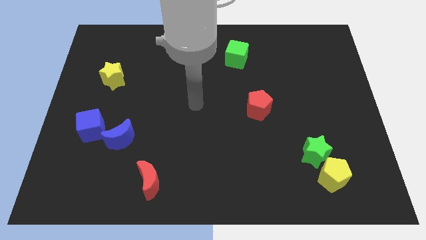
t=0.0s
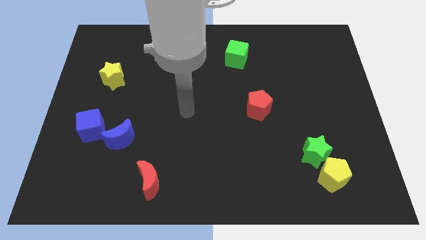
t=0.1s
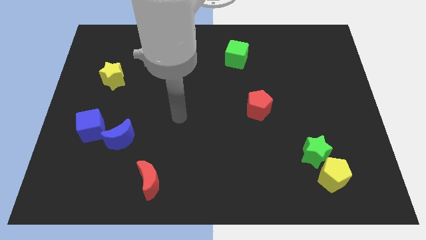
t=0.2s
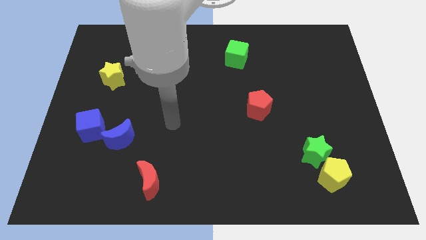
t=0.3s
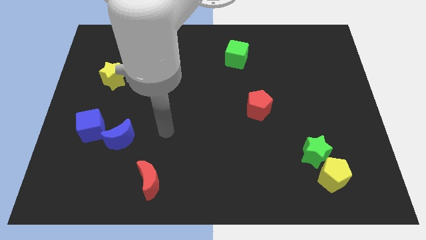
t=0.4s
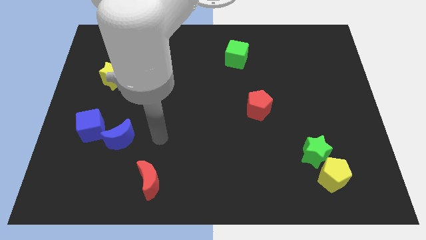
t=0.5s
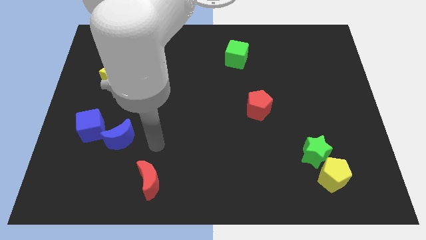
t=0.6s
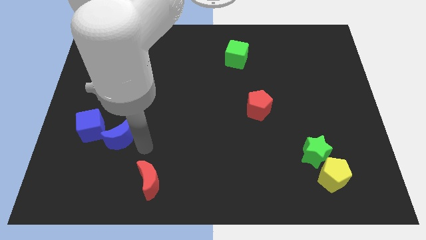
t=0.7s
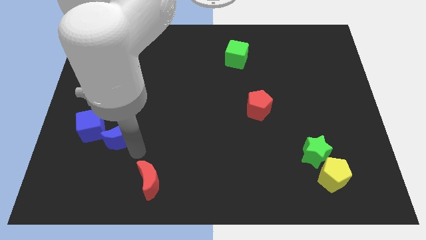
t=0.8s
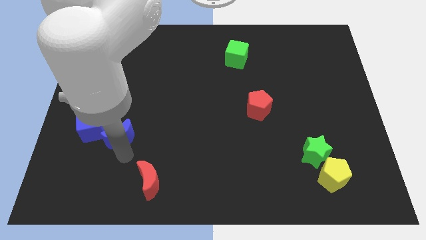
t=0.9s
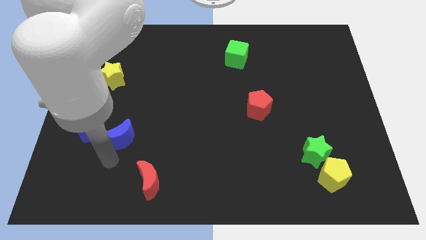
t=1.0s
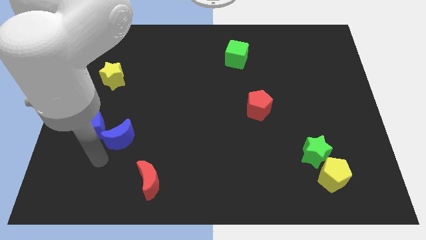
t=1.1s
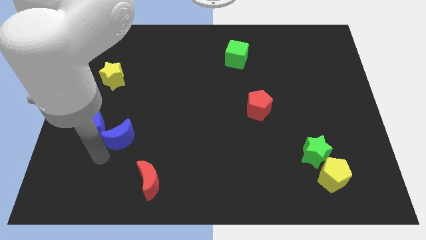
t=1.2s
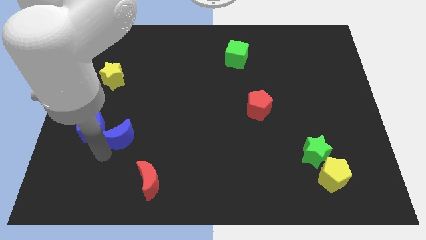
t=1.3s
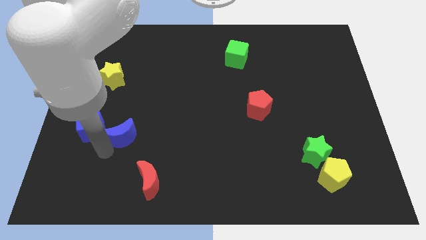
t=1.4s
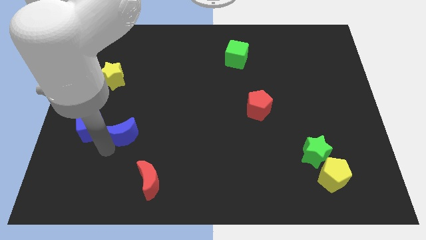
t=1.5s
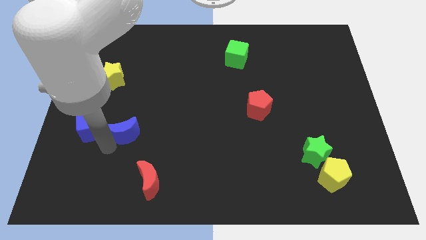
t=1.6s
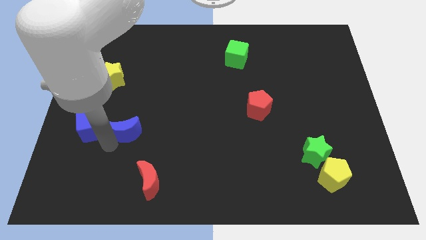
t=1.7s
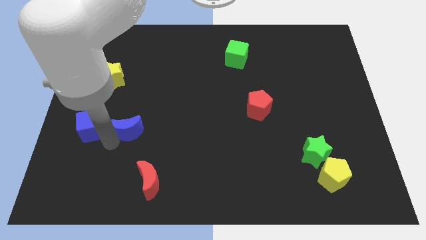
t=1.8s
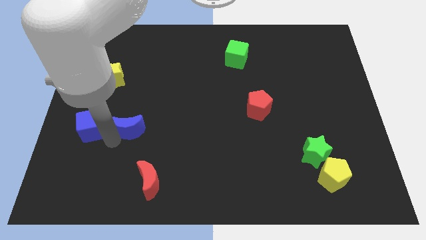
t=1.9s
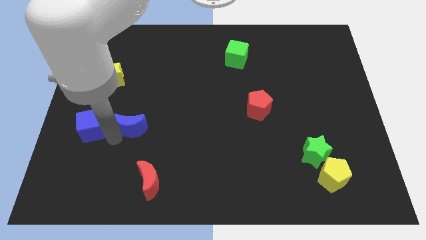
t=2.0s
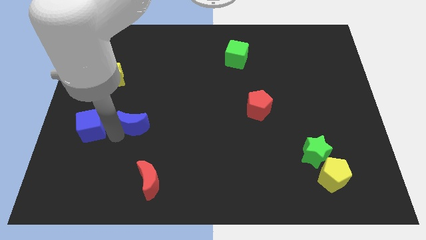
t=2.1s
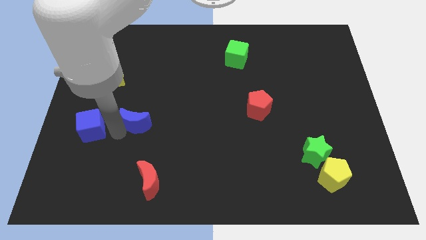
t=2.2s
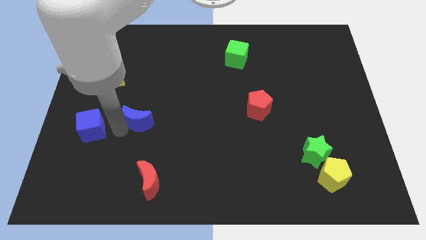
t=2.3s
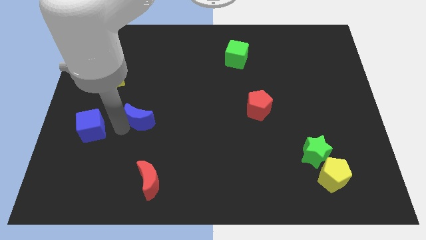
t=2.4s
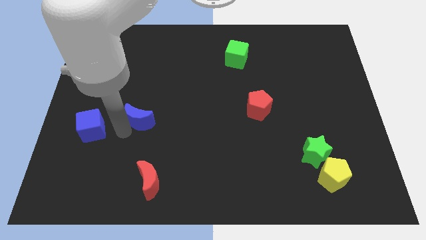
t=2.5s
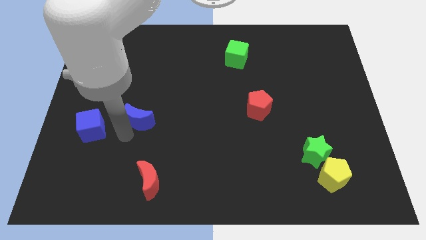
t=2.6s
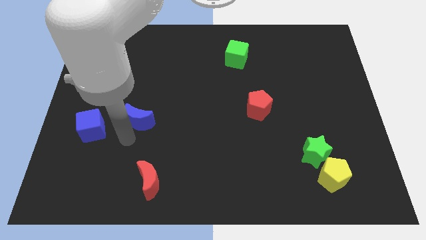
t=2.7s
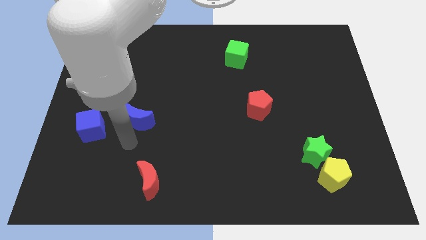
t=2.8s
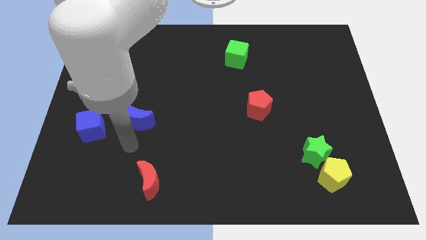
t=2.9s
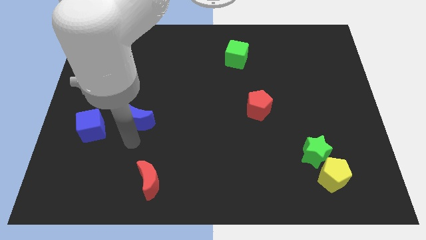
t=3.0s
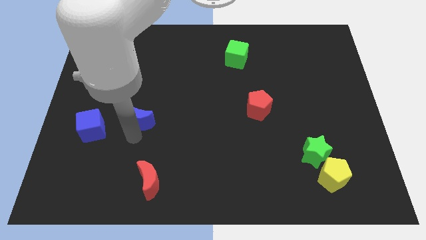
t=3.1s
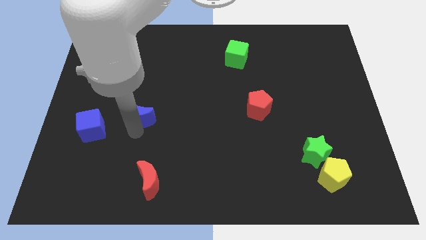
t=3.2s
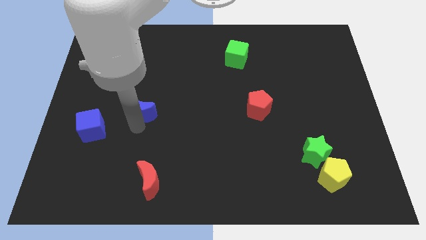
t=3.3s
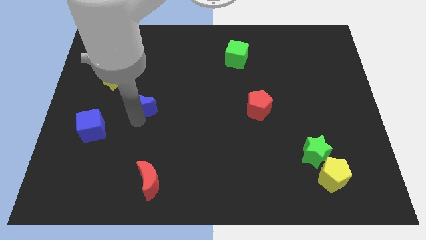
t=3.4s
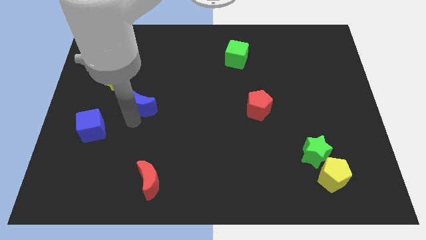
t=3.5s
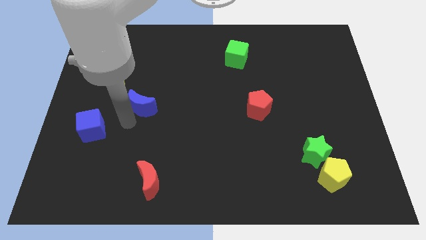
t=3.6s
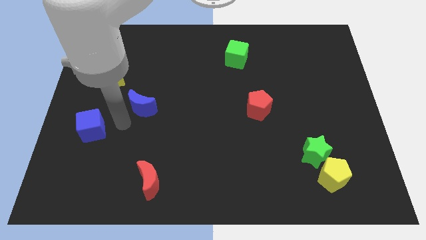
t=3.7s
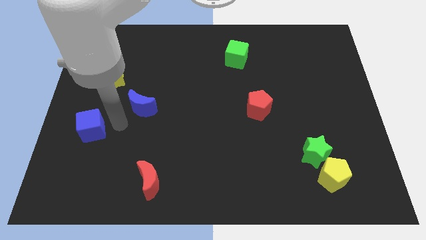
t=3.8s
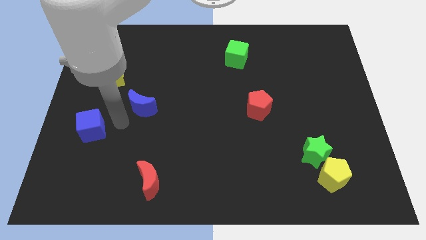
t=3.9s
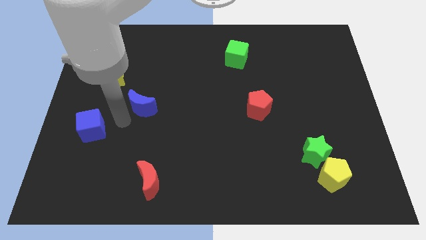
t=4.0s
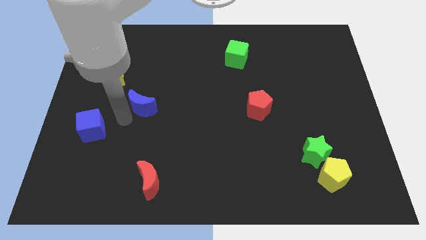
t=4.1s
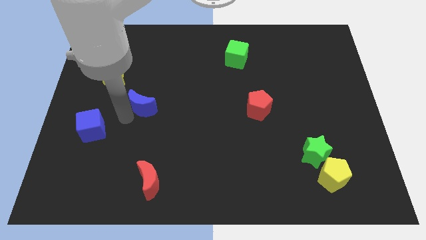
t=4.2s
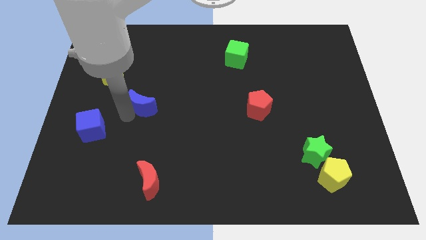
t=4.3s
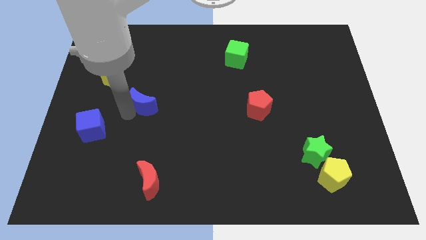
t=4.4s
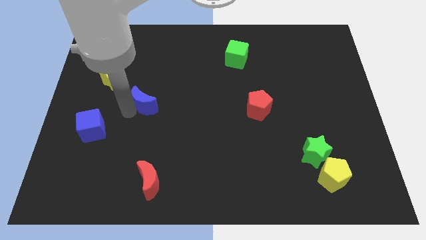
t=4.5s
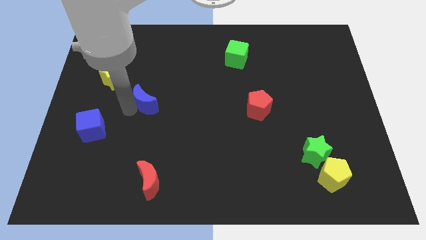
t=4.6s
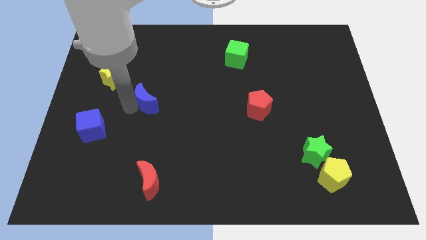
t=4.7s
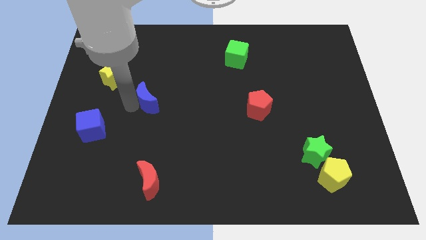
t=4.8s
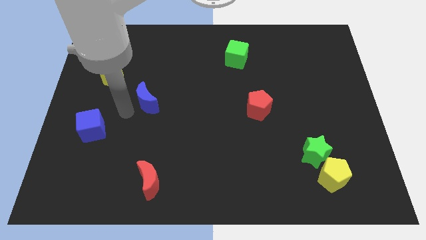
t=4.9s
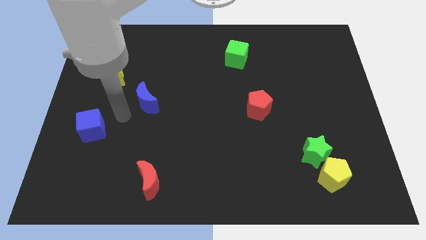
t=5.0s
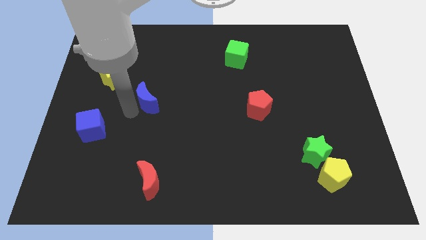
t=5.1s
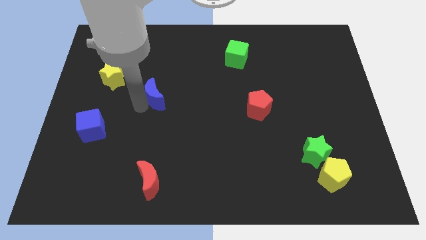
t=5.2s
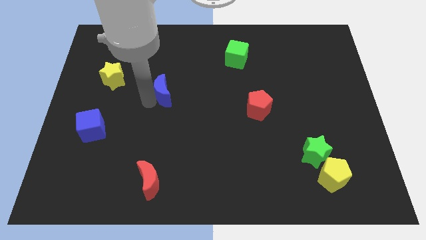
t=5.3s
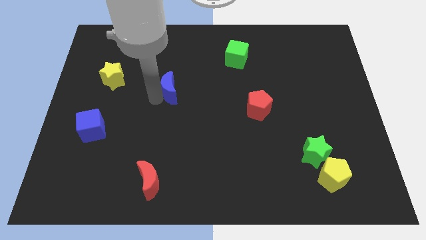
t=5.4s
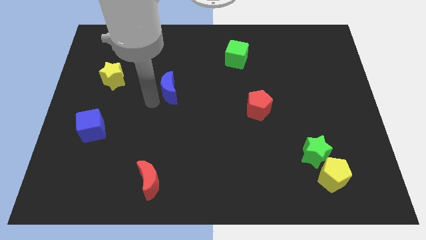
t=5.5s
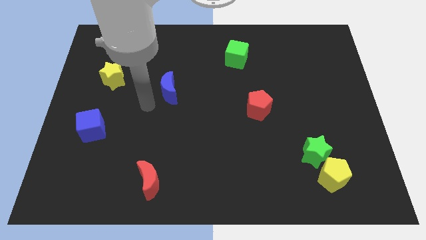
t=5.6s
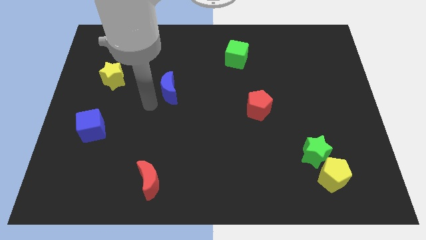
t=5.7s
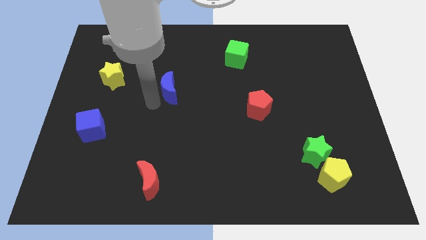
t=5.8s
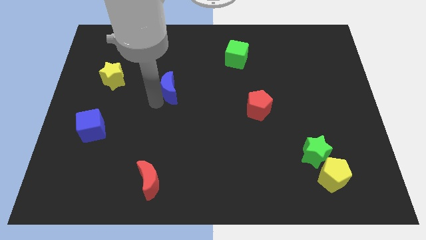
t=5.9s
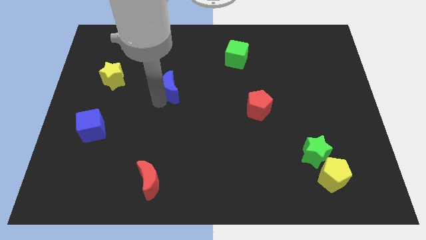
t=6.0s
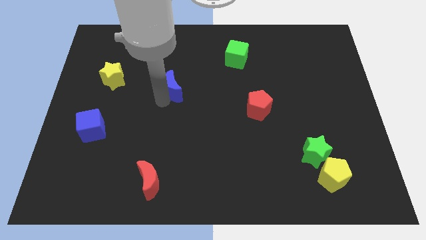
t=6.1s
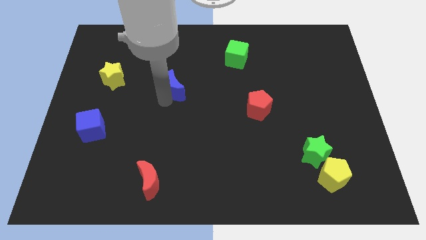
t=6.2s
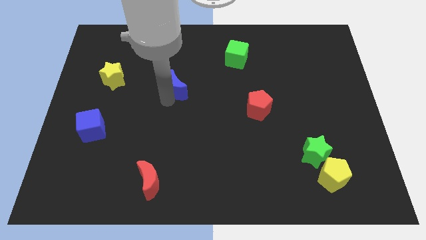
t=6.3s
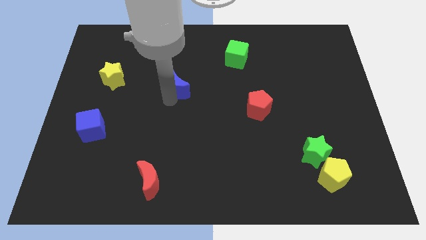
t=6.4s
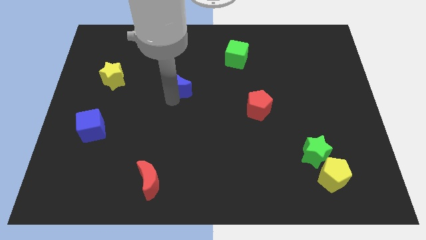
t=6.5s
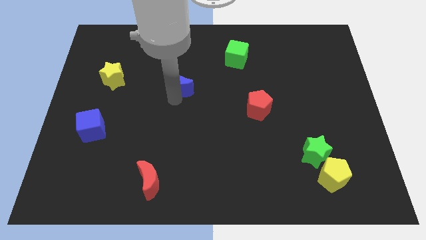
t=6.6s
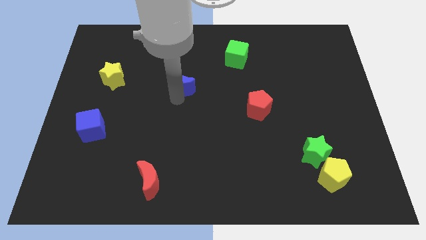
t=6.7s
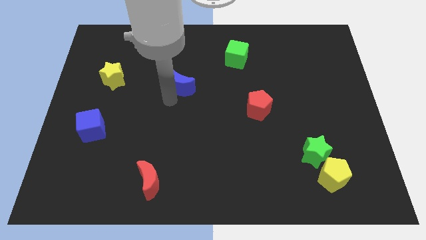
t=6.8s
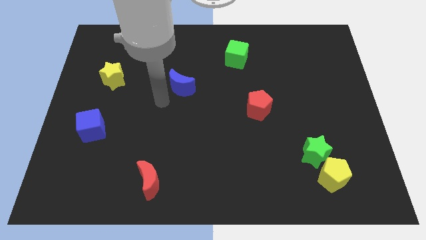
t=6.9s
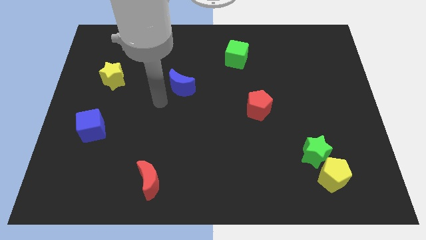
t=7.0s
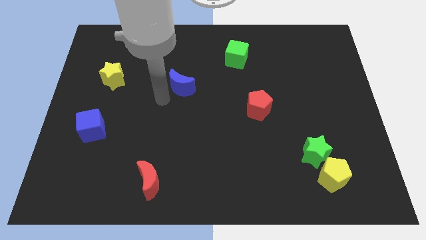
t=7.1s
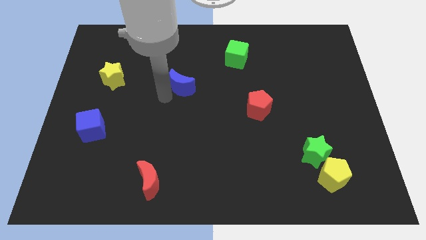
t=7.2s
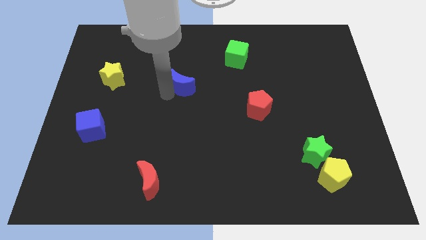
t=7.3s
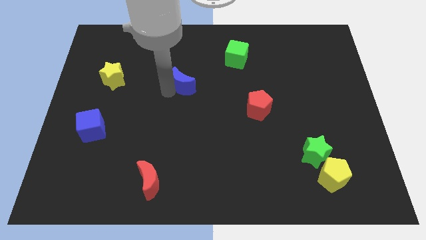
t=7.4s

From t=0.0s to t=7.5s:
push the blue moon diagonally up and to the right

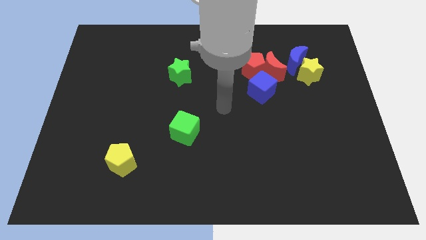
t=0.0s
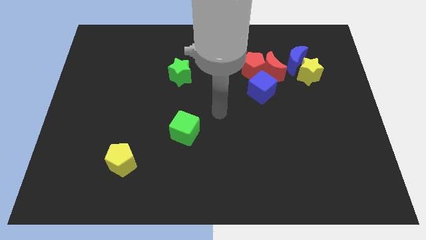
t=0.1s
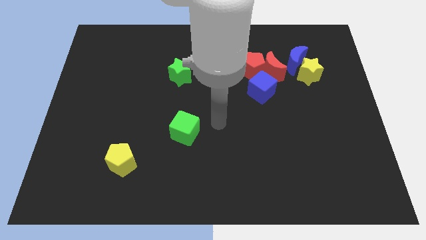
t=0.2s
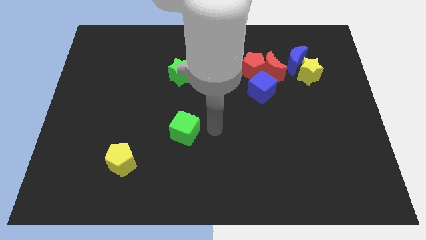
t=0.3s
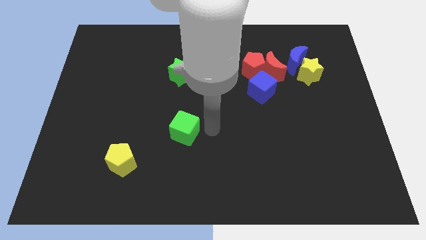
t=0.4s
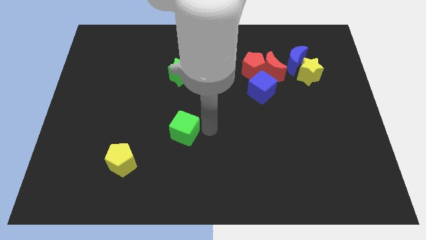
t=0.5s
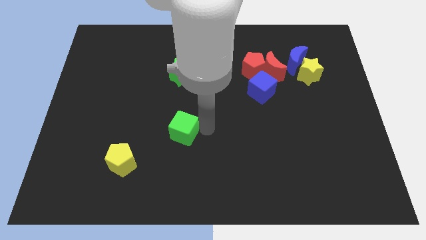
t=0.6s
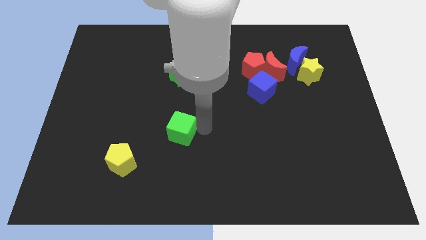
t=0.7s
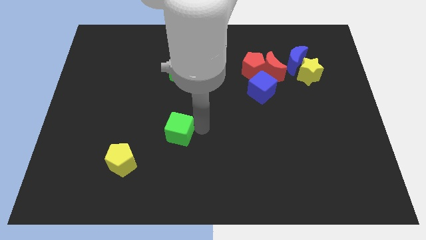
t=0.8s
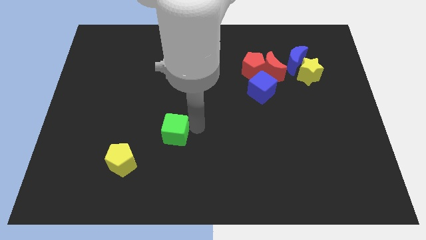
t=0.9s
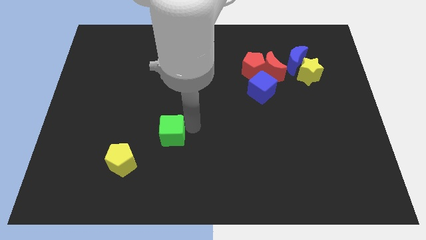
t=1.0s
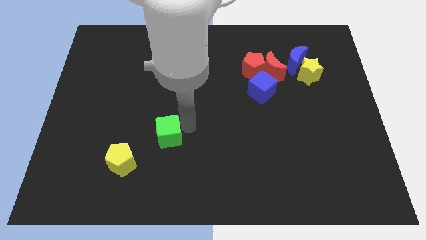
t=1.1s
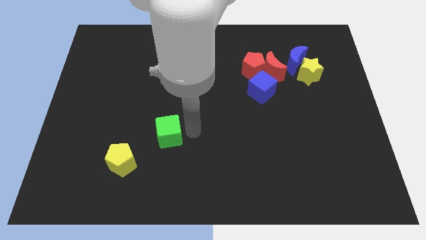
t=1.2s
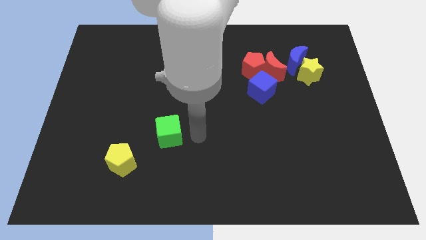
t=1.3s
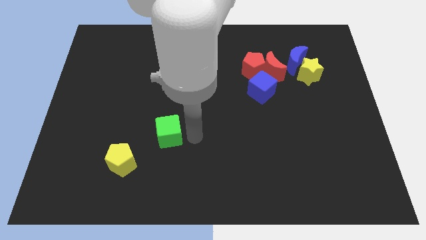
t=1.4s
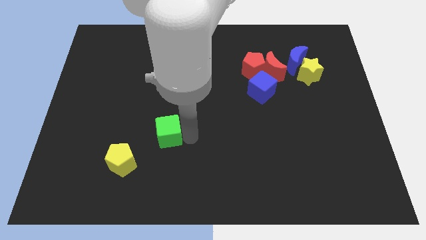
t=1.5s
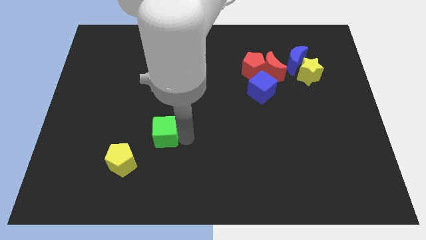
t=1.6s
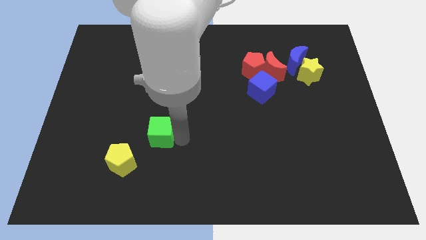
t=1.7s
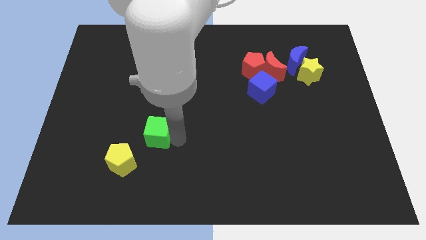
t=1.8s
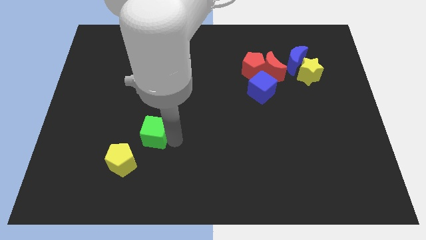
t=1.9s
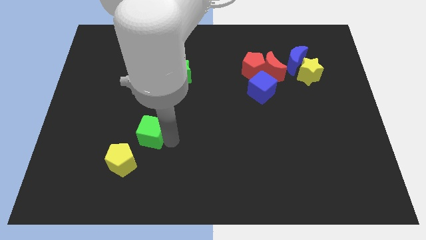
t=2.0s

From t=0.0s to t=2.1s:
slide the green cube to the left a little bit
